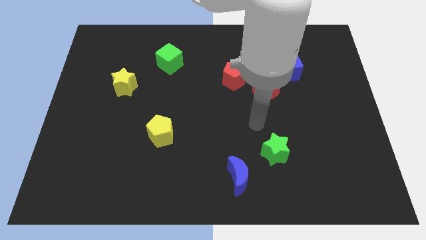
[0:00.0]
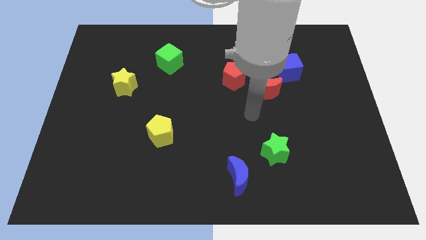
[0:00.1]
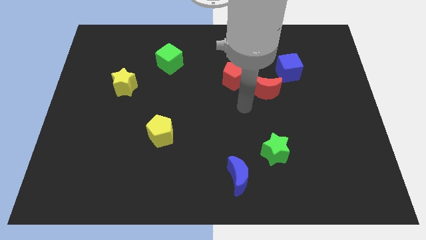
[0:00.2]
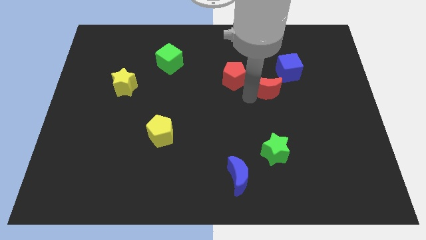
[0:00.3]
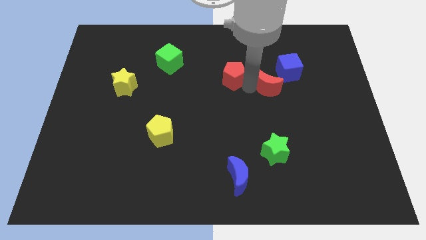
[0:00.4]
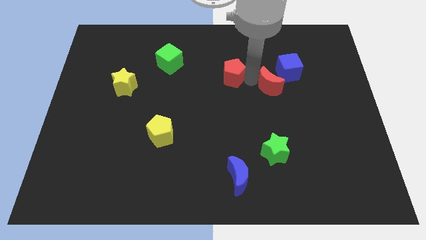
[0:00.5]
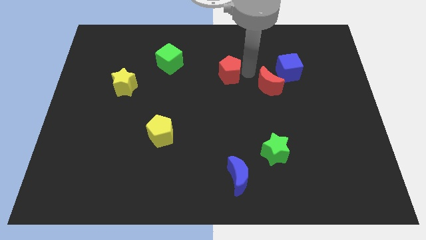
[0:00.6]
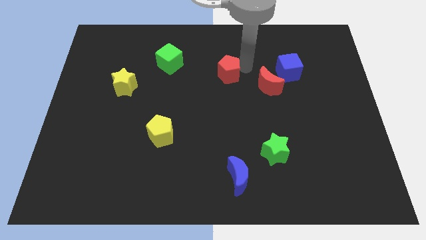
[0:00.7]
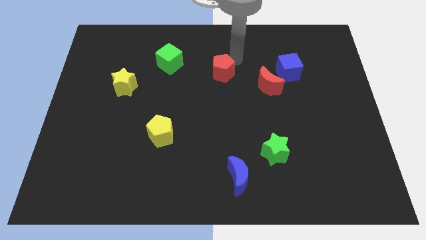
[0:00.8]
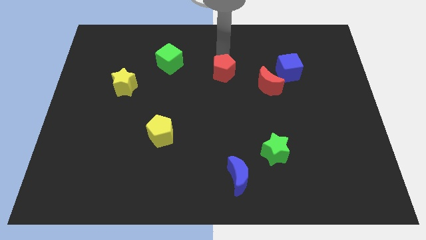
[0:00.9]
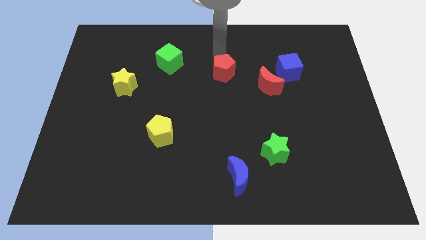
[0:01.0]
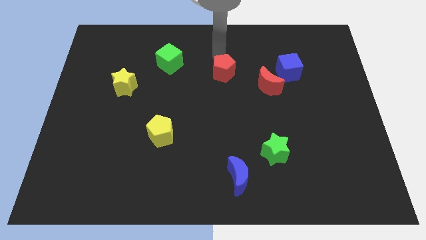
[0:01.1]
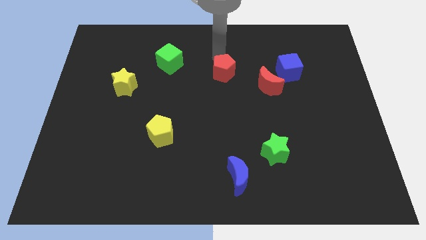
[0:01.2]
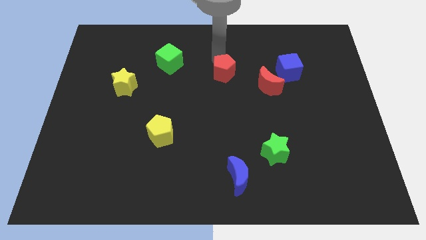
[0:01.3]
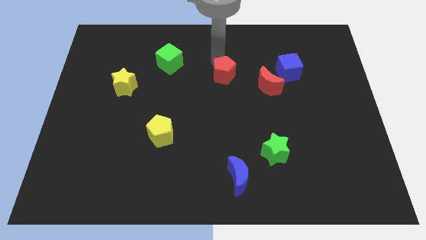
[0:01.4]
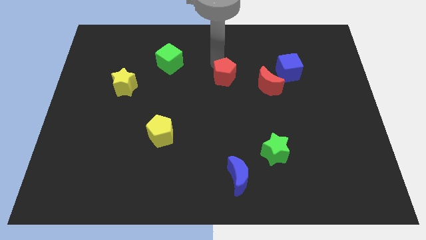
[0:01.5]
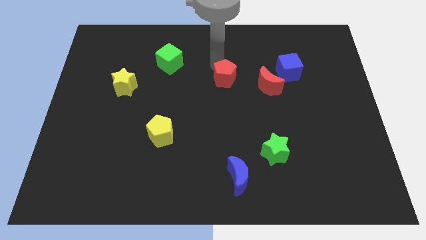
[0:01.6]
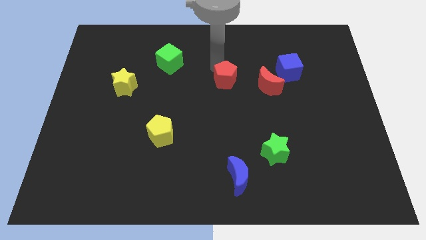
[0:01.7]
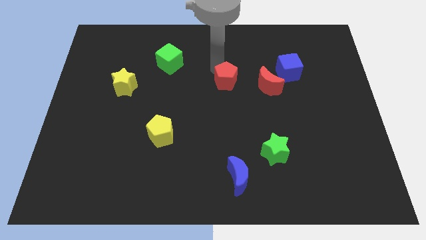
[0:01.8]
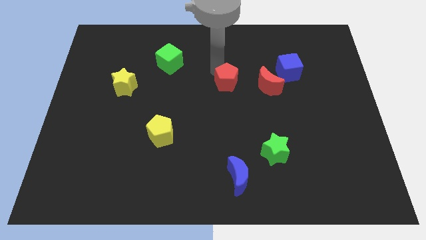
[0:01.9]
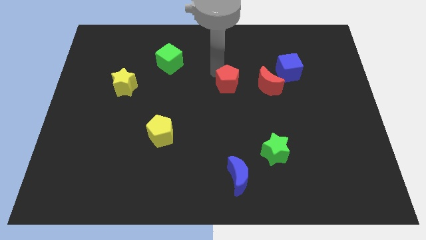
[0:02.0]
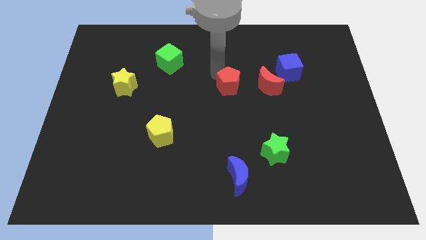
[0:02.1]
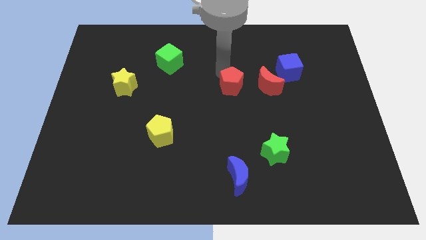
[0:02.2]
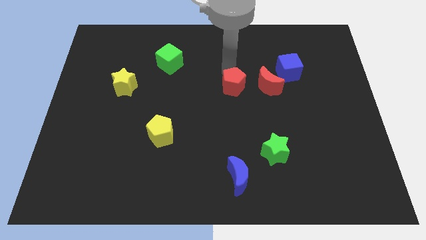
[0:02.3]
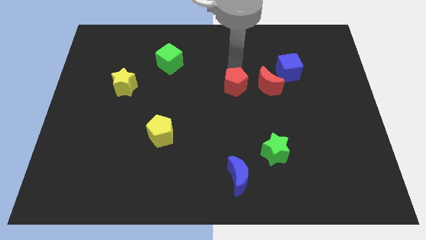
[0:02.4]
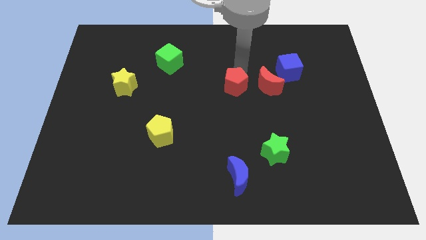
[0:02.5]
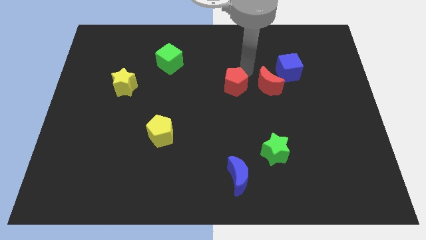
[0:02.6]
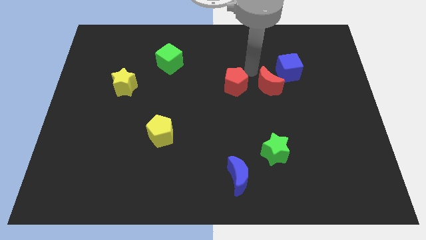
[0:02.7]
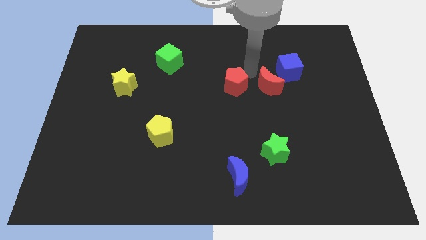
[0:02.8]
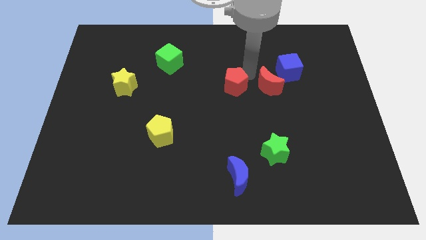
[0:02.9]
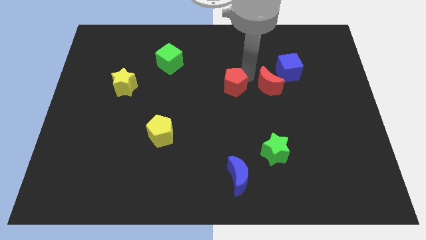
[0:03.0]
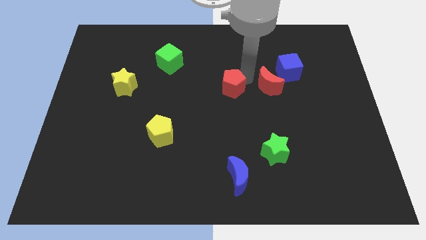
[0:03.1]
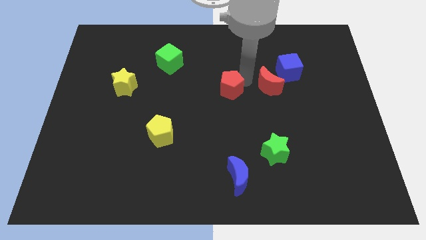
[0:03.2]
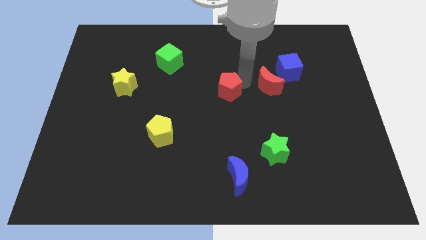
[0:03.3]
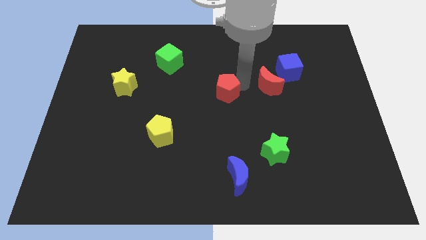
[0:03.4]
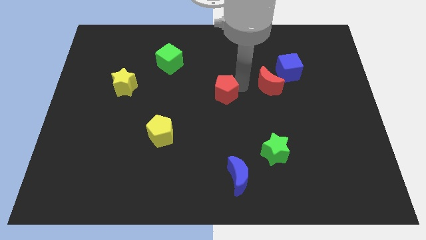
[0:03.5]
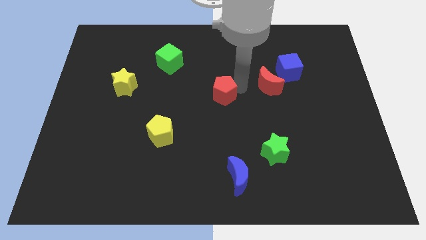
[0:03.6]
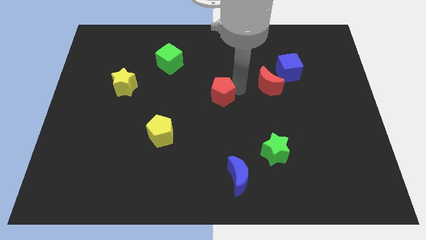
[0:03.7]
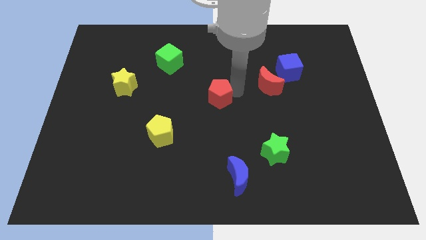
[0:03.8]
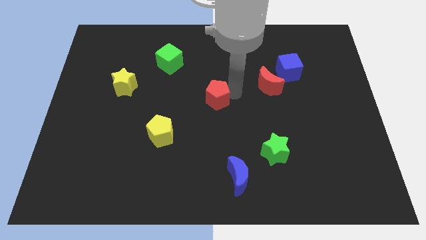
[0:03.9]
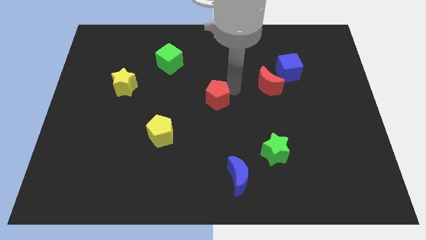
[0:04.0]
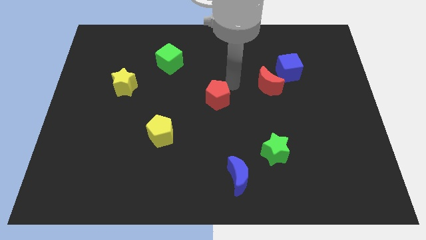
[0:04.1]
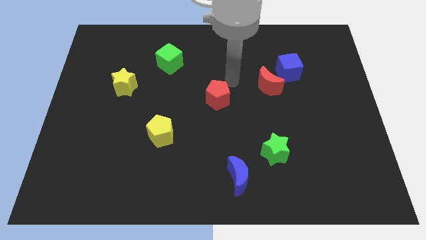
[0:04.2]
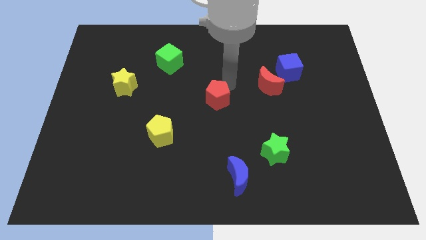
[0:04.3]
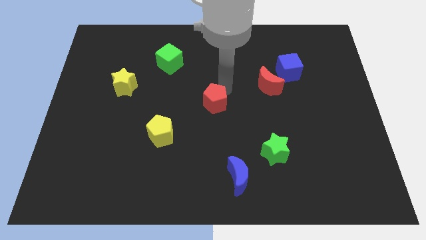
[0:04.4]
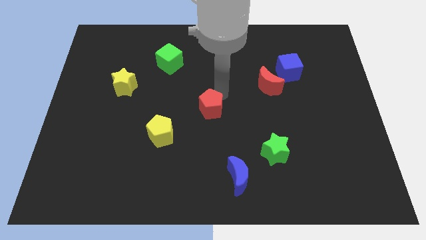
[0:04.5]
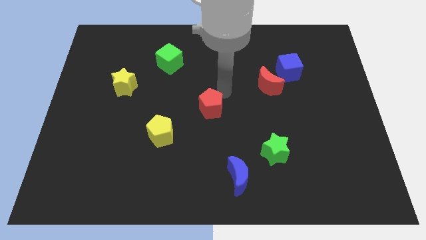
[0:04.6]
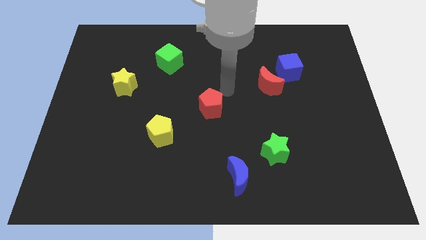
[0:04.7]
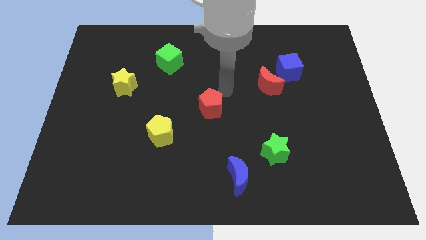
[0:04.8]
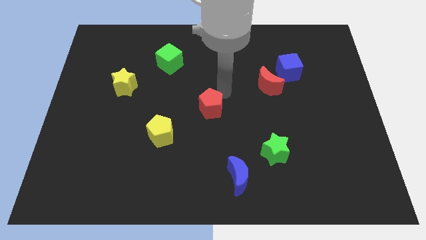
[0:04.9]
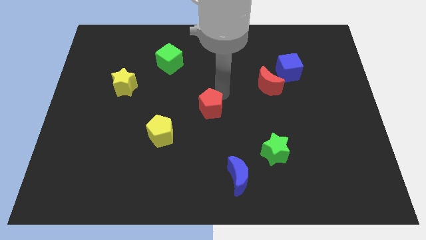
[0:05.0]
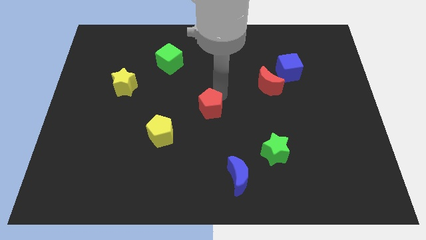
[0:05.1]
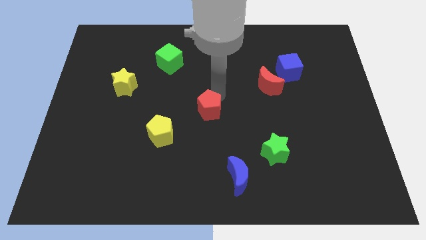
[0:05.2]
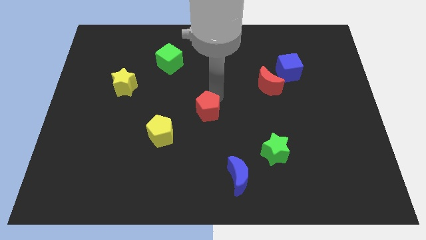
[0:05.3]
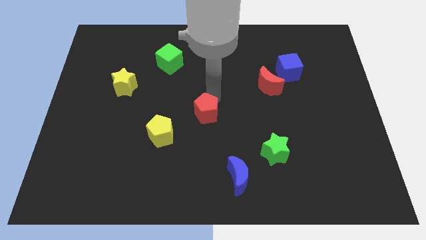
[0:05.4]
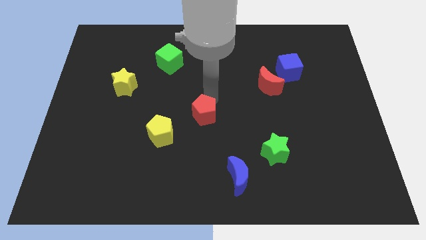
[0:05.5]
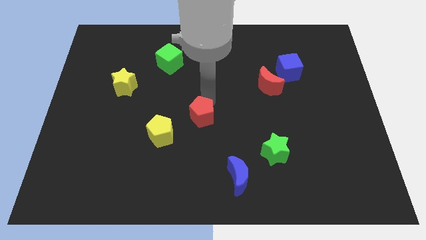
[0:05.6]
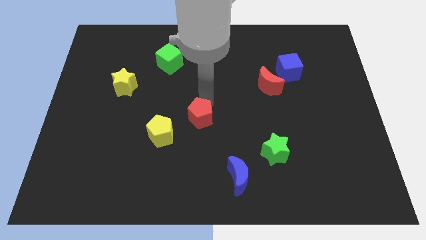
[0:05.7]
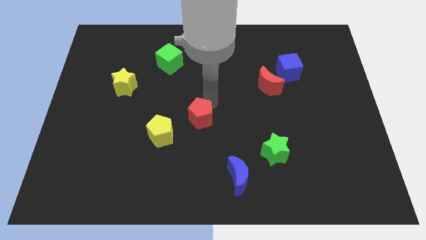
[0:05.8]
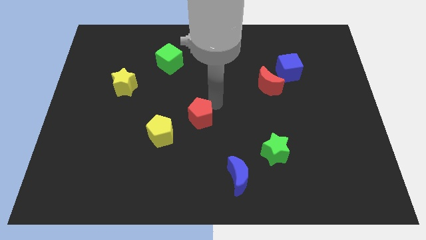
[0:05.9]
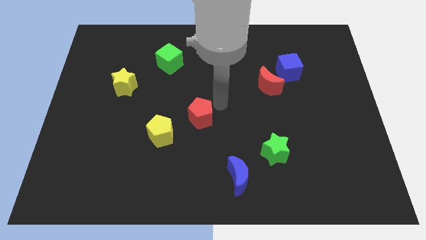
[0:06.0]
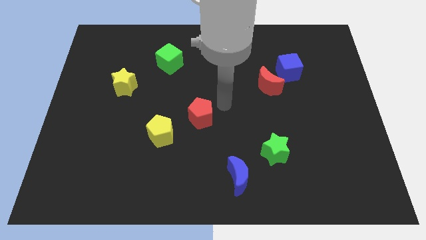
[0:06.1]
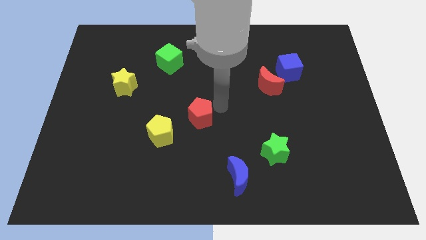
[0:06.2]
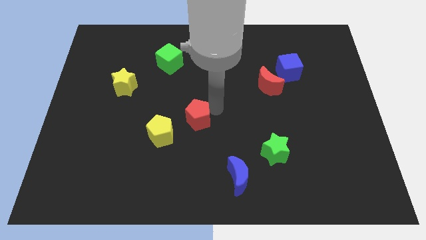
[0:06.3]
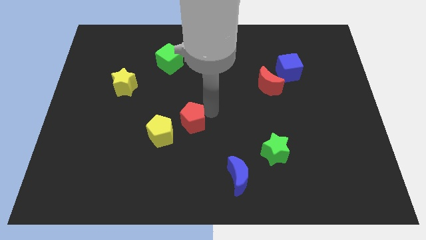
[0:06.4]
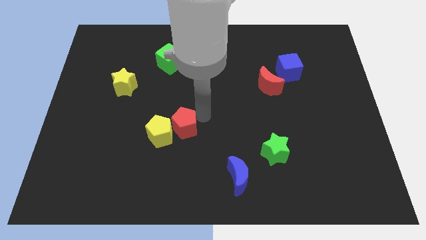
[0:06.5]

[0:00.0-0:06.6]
slide the red pentagon next to the yellow pentagon

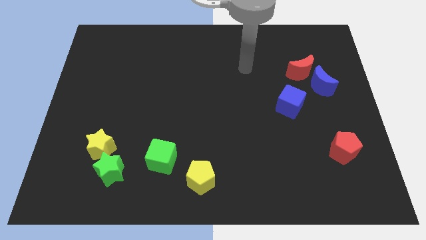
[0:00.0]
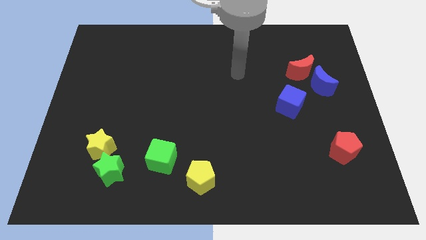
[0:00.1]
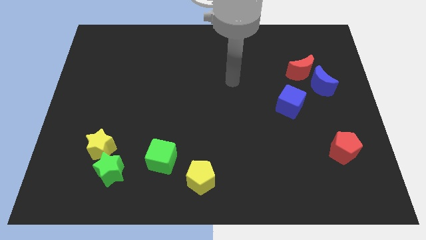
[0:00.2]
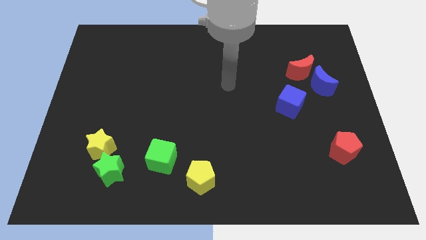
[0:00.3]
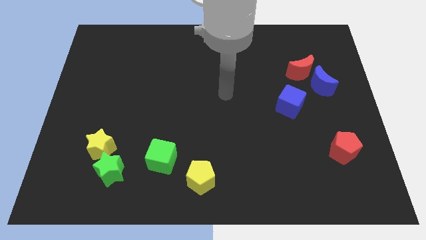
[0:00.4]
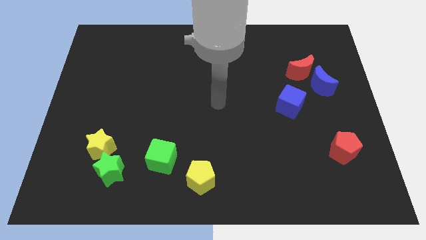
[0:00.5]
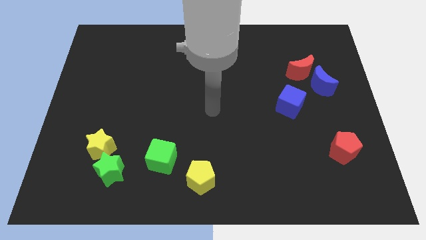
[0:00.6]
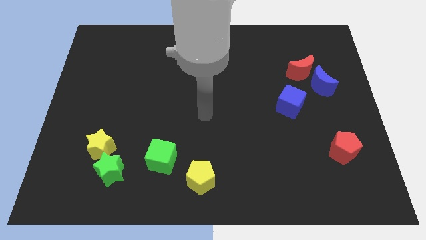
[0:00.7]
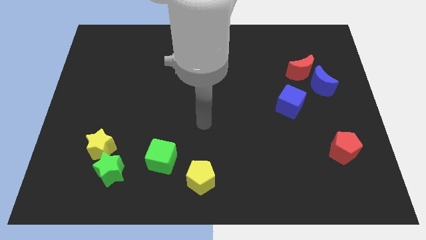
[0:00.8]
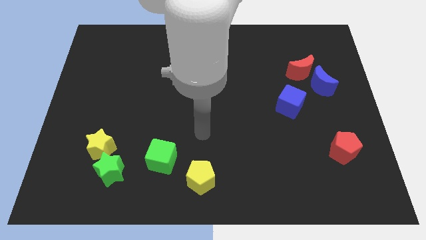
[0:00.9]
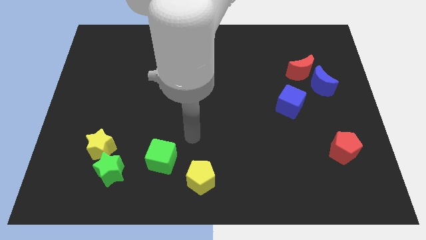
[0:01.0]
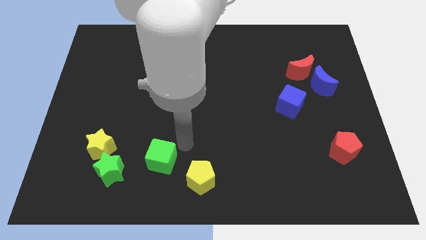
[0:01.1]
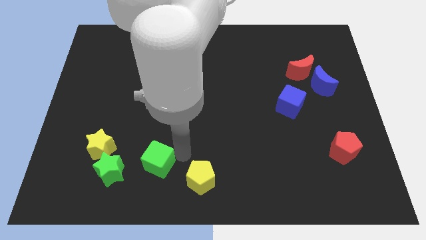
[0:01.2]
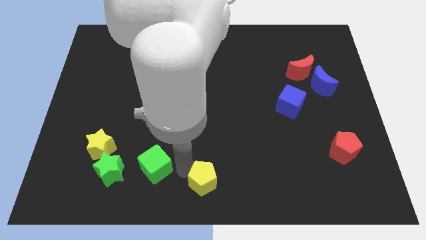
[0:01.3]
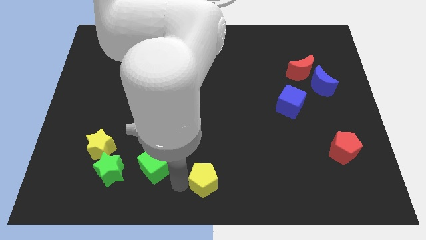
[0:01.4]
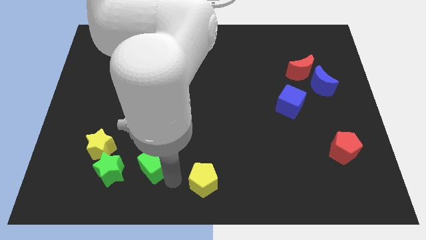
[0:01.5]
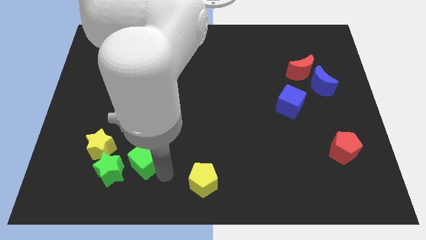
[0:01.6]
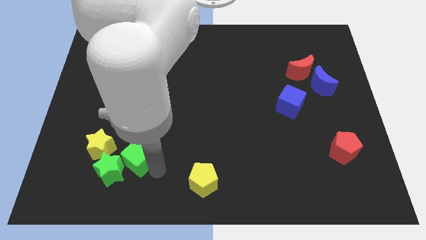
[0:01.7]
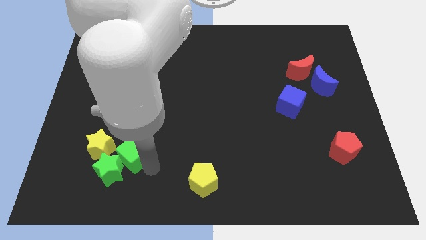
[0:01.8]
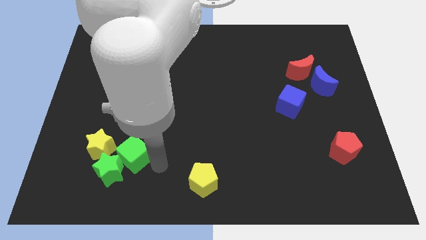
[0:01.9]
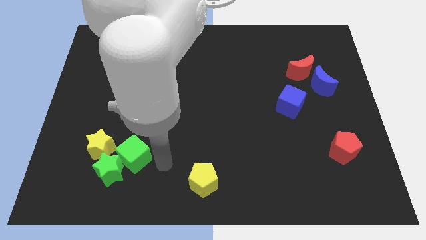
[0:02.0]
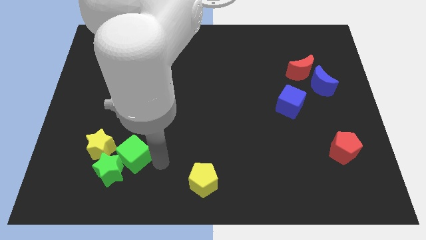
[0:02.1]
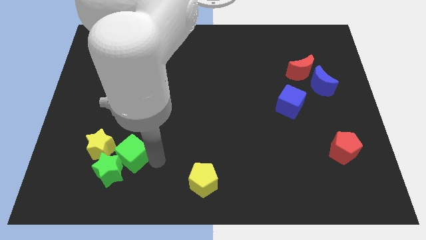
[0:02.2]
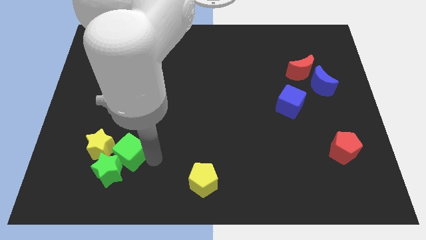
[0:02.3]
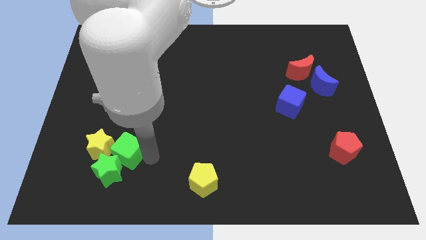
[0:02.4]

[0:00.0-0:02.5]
put the green cube to the yellow star
